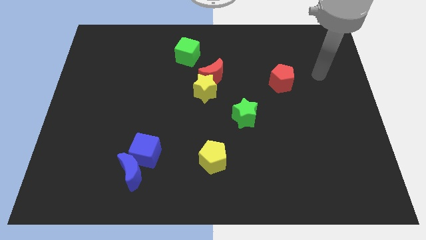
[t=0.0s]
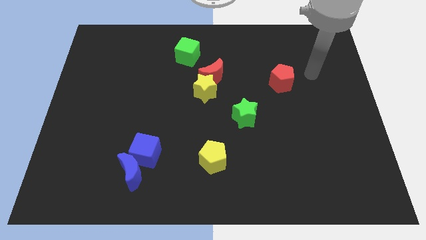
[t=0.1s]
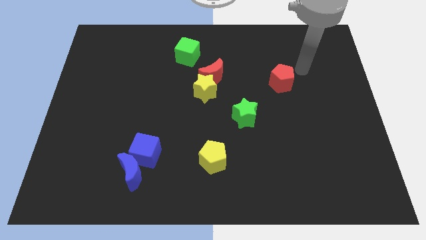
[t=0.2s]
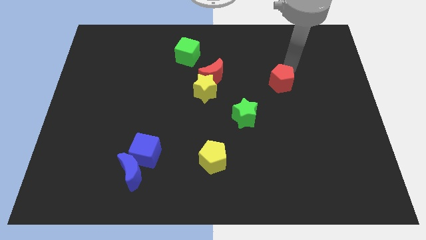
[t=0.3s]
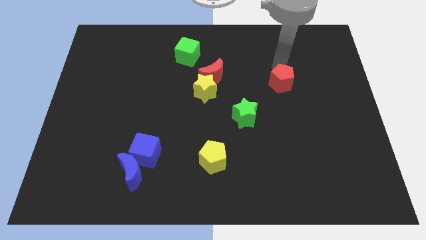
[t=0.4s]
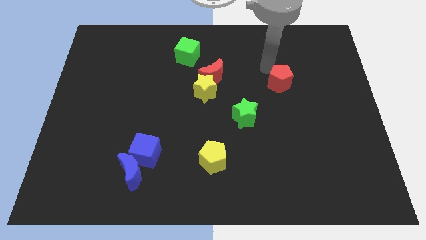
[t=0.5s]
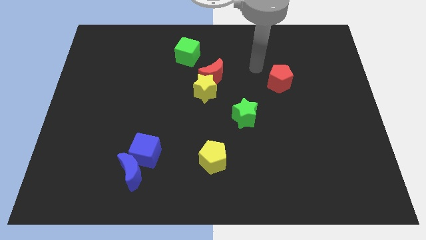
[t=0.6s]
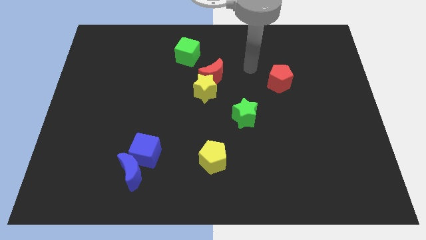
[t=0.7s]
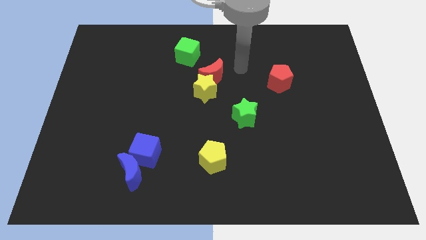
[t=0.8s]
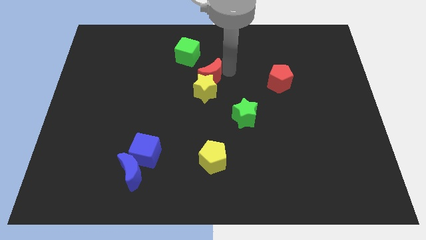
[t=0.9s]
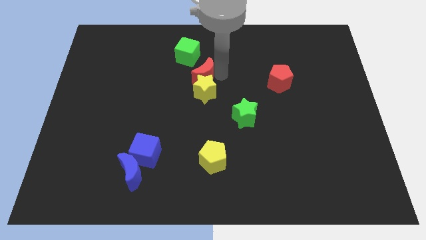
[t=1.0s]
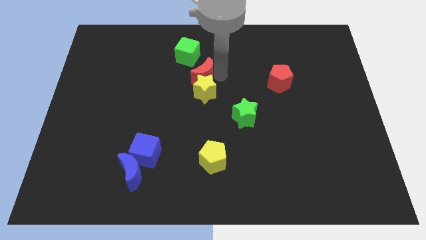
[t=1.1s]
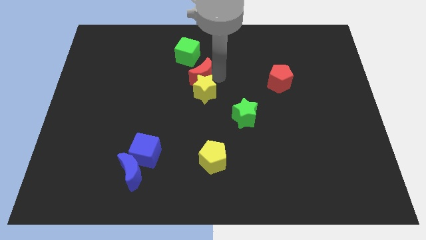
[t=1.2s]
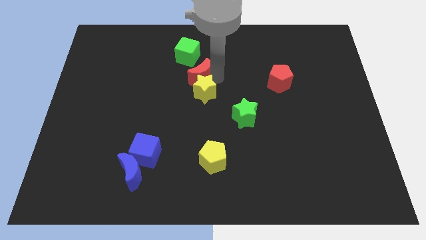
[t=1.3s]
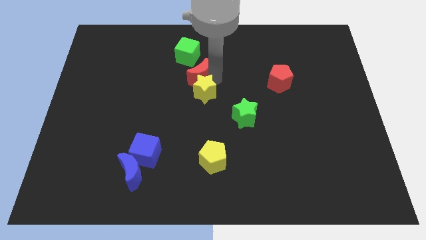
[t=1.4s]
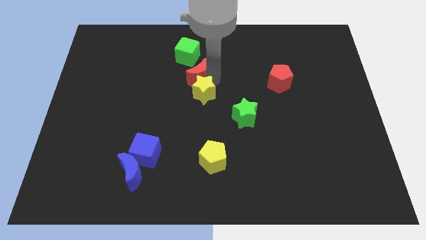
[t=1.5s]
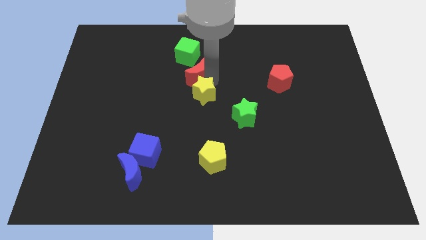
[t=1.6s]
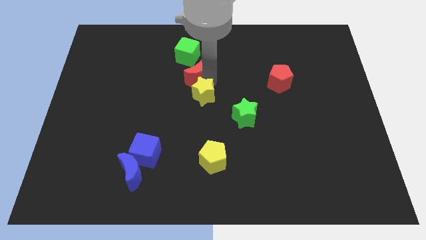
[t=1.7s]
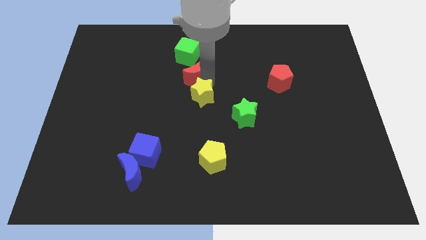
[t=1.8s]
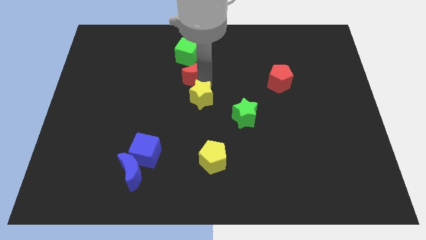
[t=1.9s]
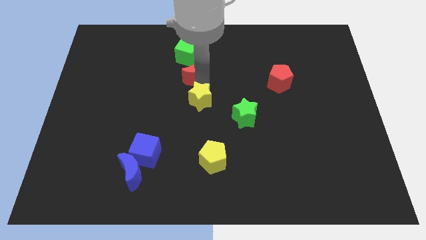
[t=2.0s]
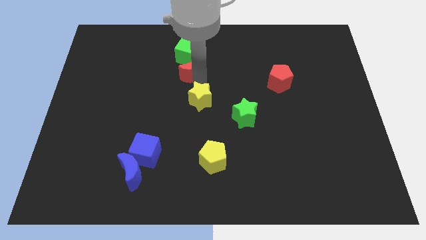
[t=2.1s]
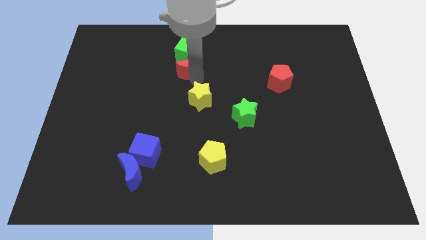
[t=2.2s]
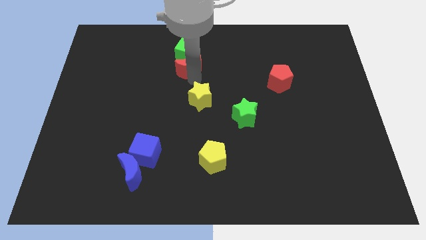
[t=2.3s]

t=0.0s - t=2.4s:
move the yellow star away from the red moon

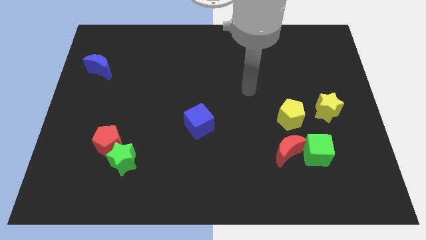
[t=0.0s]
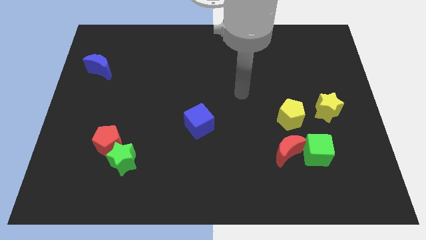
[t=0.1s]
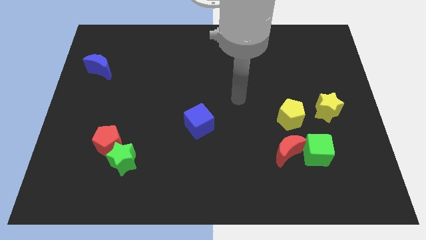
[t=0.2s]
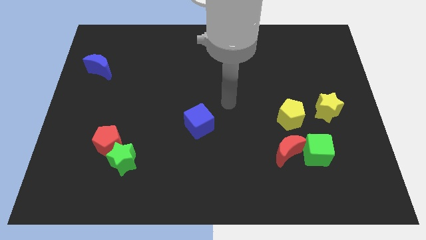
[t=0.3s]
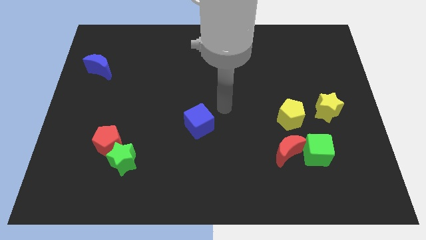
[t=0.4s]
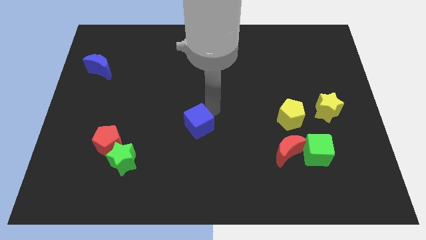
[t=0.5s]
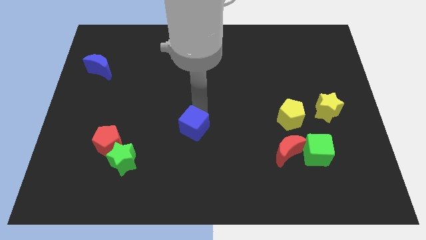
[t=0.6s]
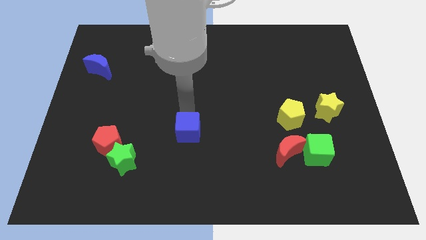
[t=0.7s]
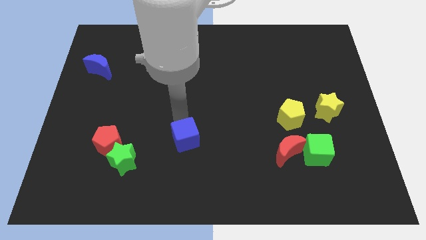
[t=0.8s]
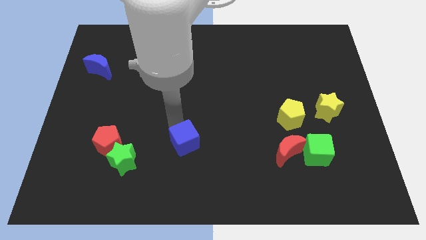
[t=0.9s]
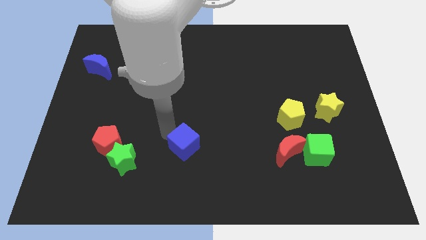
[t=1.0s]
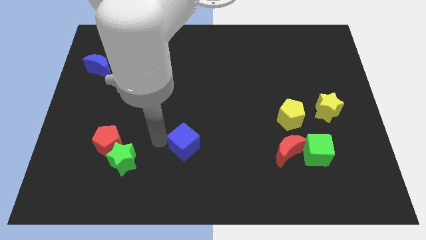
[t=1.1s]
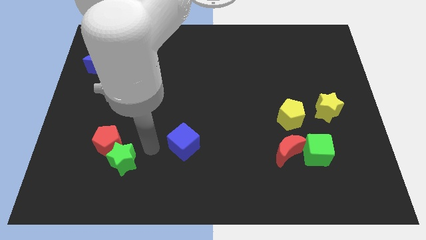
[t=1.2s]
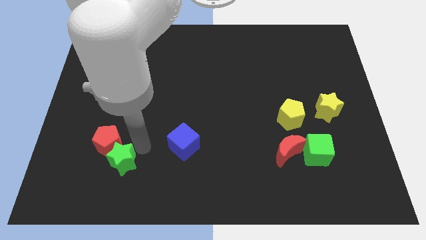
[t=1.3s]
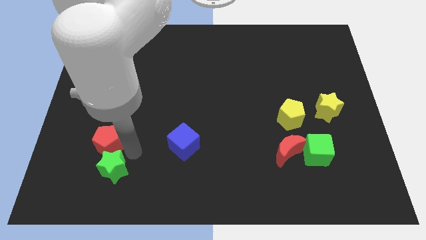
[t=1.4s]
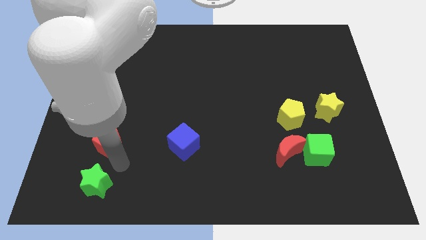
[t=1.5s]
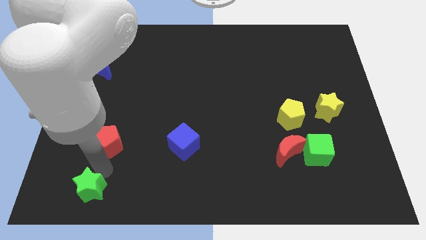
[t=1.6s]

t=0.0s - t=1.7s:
separate the red pentagon from the green star

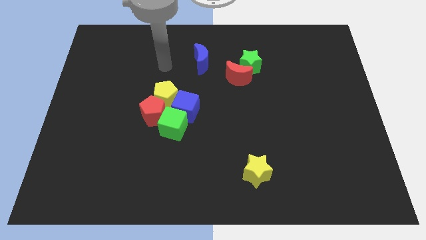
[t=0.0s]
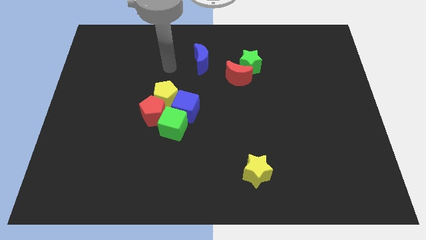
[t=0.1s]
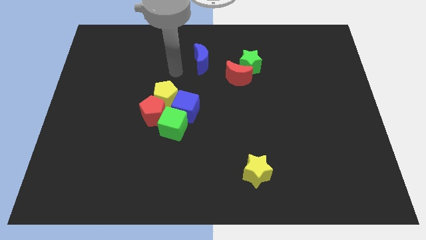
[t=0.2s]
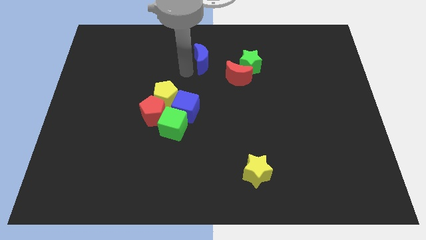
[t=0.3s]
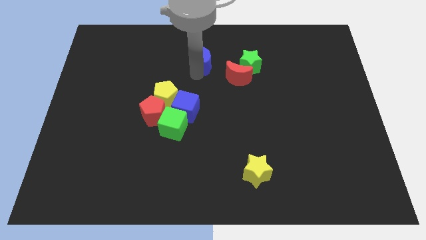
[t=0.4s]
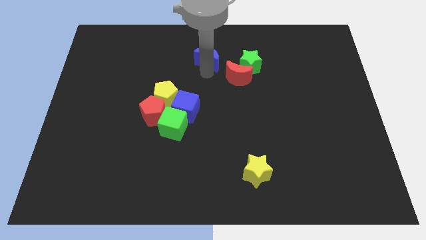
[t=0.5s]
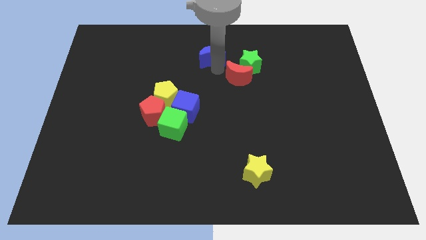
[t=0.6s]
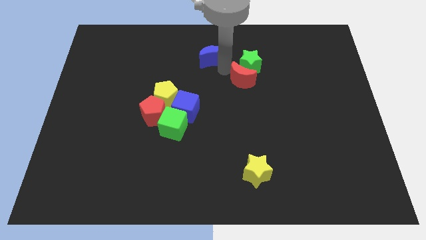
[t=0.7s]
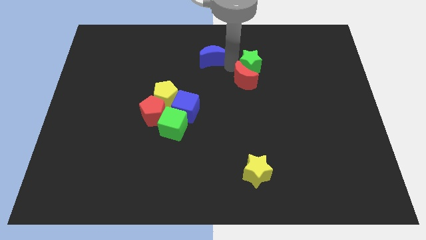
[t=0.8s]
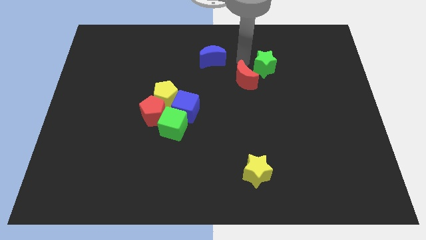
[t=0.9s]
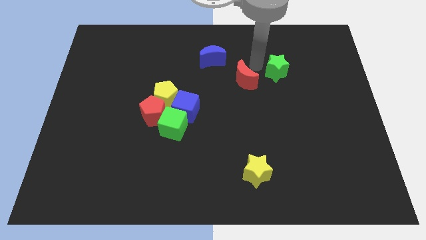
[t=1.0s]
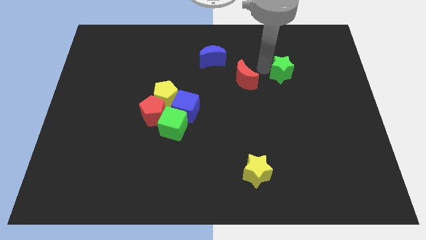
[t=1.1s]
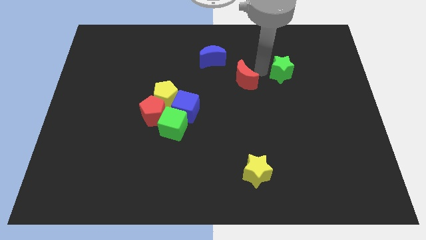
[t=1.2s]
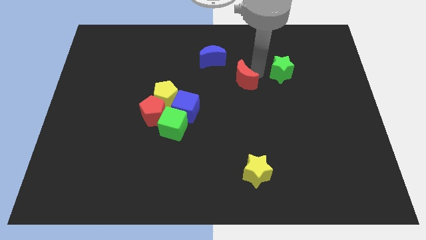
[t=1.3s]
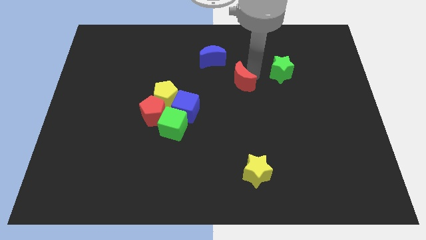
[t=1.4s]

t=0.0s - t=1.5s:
separate the red moon from the green star

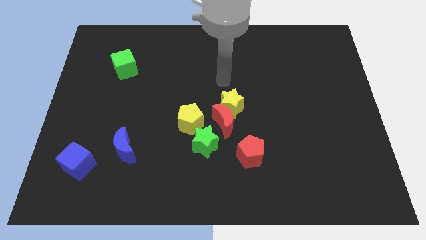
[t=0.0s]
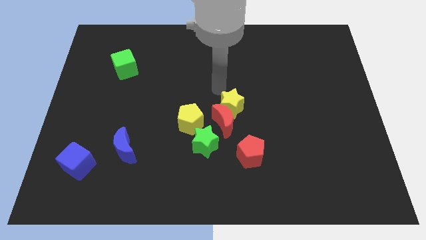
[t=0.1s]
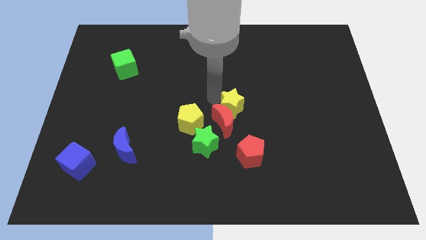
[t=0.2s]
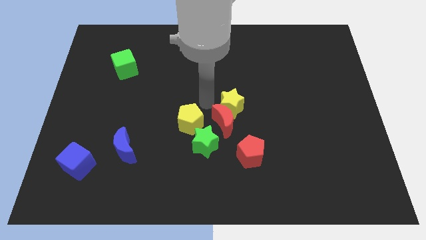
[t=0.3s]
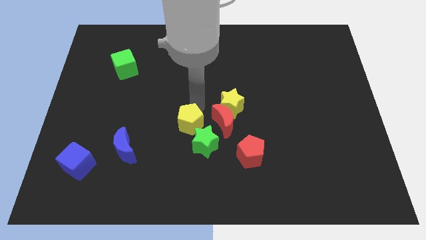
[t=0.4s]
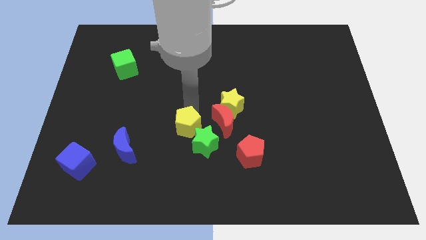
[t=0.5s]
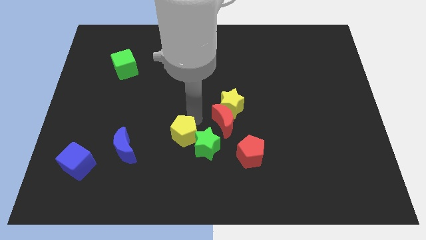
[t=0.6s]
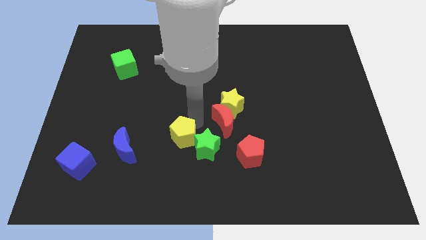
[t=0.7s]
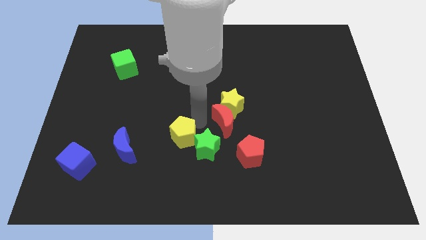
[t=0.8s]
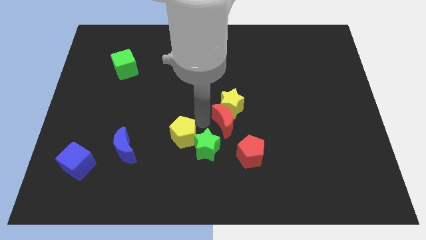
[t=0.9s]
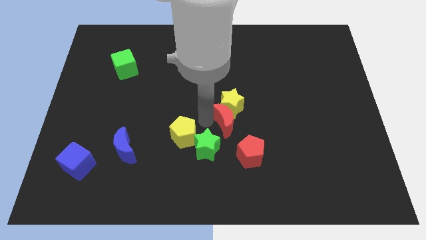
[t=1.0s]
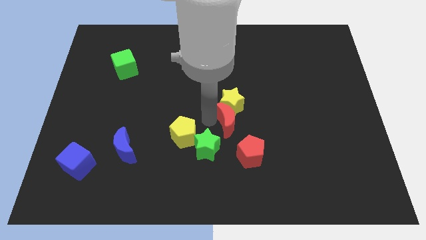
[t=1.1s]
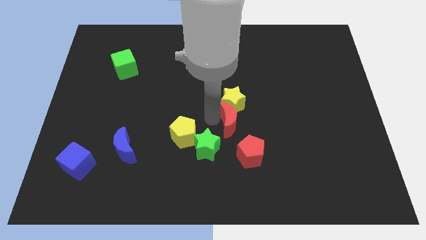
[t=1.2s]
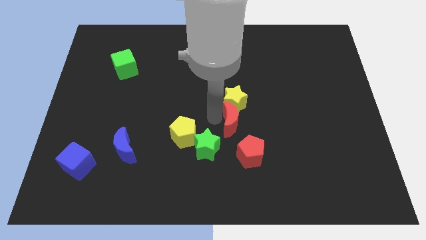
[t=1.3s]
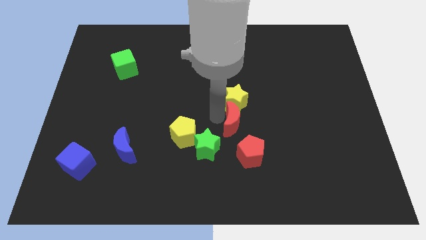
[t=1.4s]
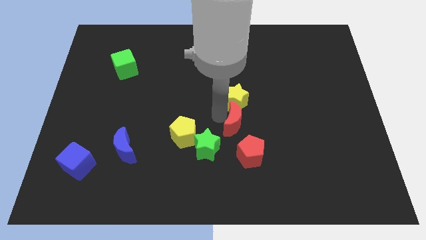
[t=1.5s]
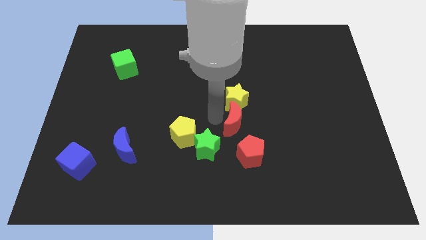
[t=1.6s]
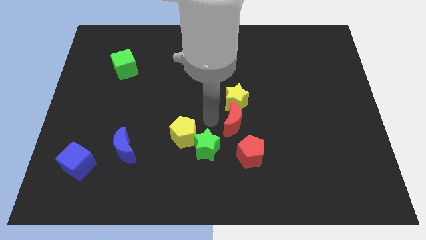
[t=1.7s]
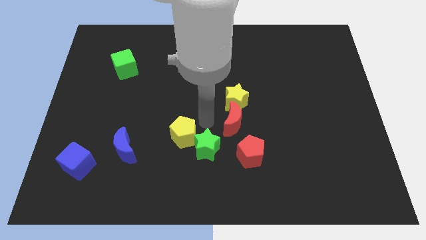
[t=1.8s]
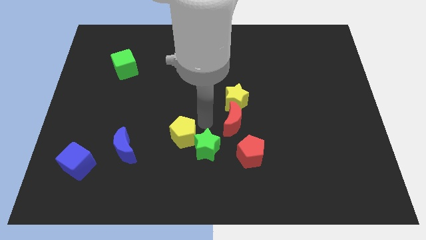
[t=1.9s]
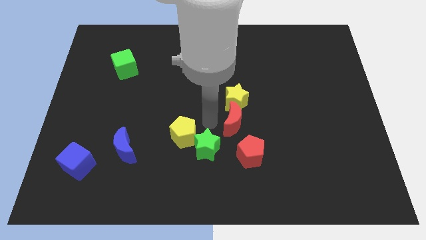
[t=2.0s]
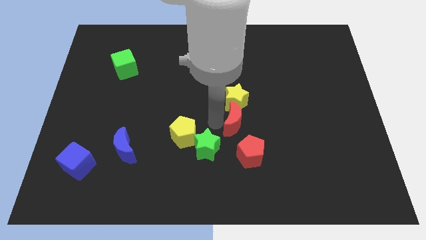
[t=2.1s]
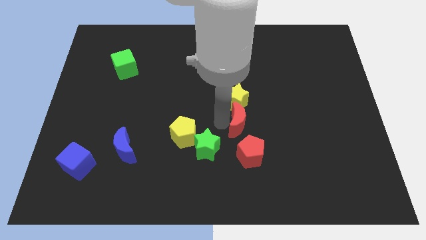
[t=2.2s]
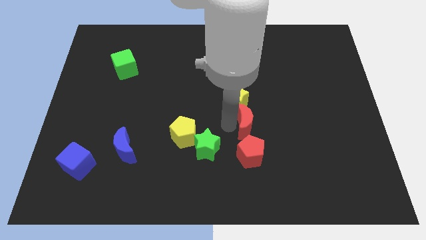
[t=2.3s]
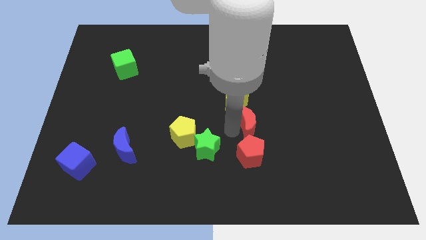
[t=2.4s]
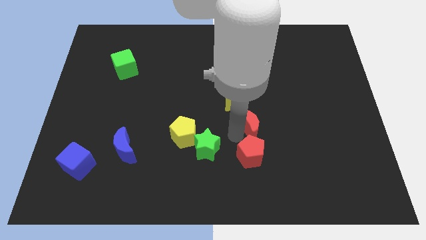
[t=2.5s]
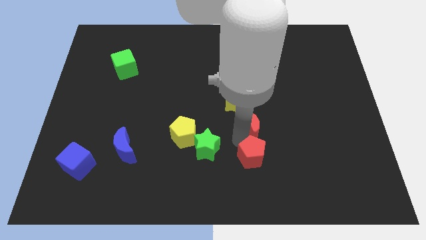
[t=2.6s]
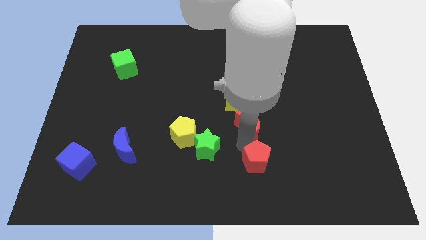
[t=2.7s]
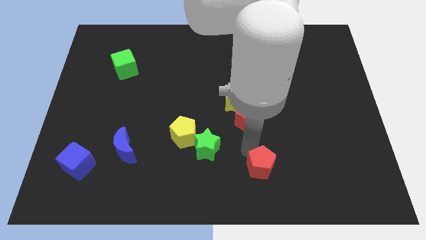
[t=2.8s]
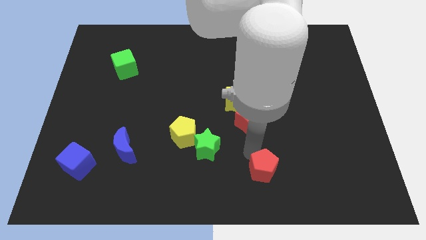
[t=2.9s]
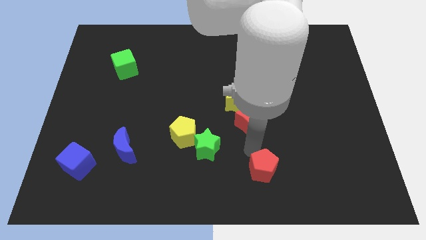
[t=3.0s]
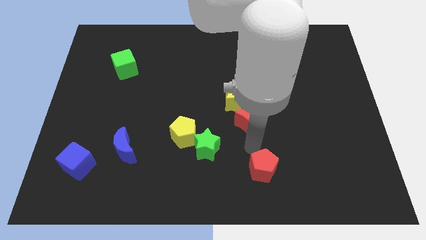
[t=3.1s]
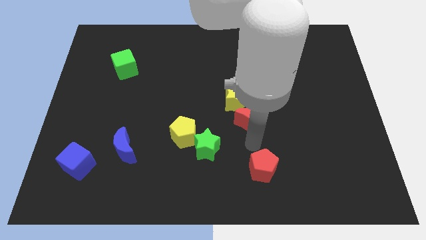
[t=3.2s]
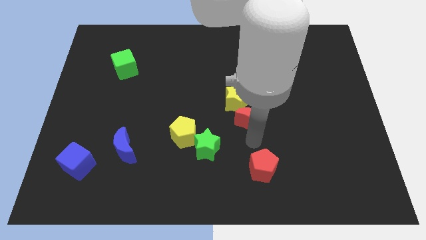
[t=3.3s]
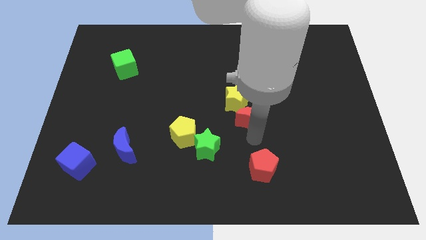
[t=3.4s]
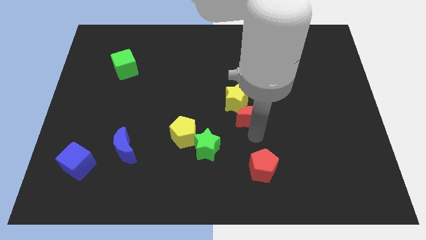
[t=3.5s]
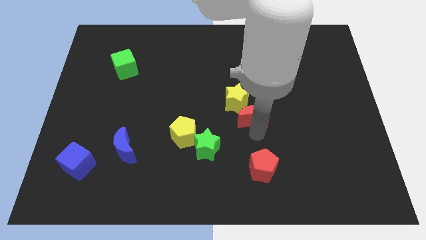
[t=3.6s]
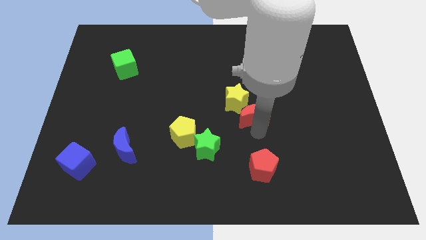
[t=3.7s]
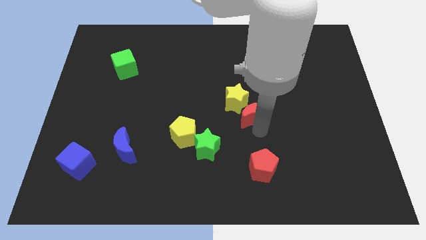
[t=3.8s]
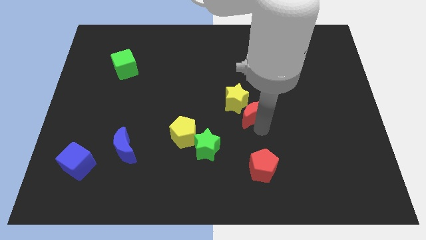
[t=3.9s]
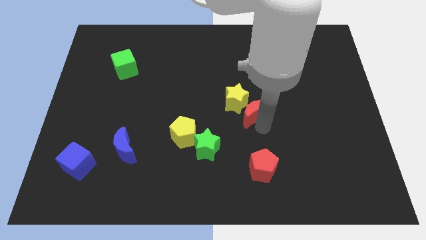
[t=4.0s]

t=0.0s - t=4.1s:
pull the red moon apart from the group
